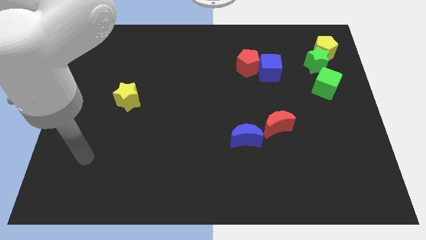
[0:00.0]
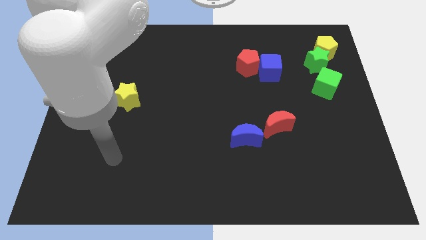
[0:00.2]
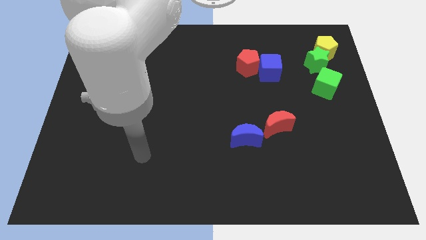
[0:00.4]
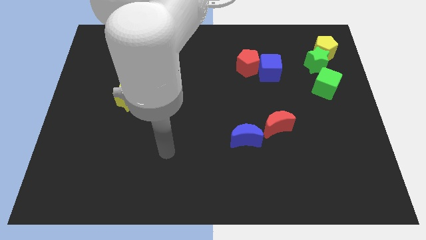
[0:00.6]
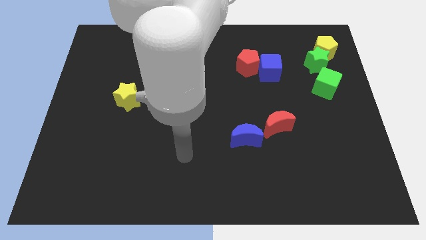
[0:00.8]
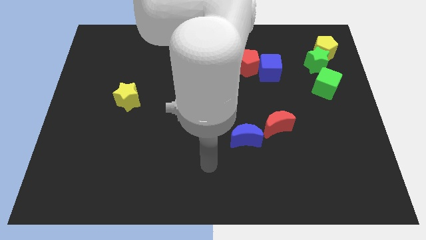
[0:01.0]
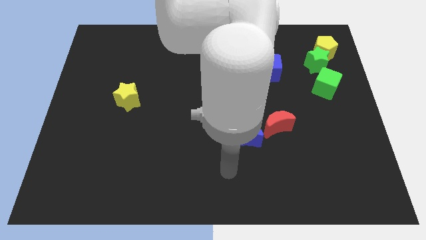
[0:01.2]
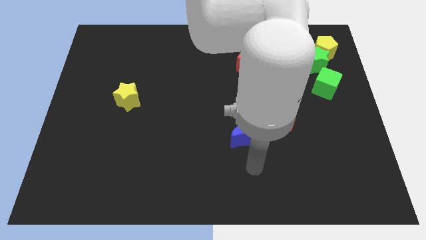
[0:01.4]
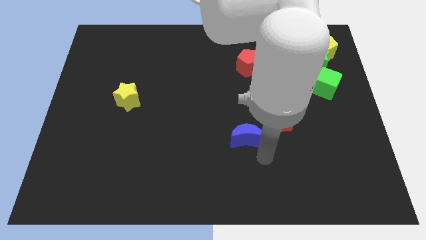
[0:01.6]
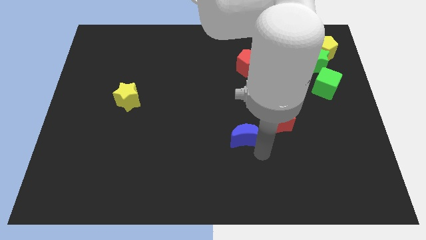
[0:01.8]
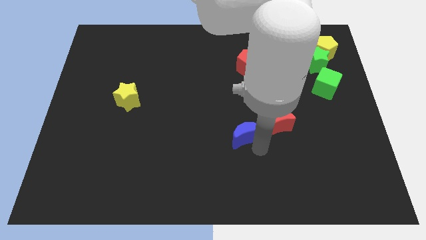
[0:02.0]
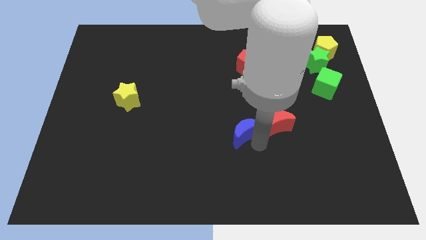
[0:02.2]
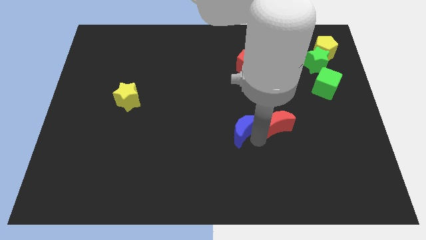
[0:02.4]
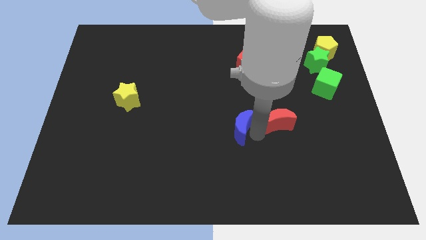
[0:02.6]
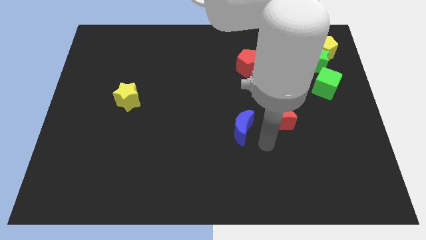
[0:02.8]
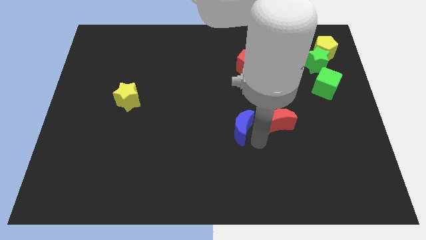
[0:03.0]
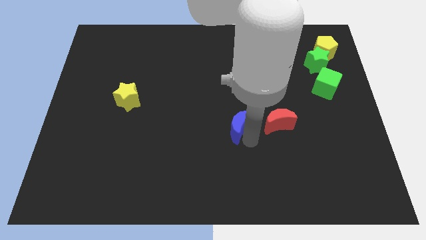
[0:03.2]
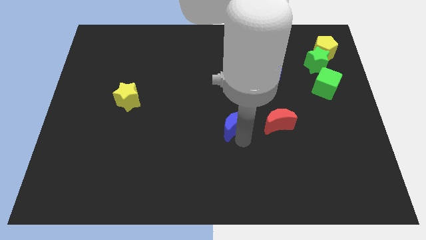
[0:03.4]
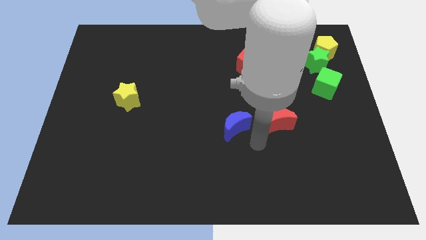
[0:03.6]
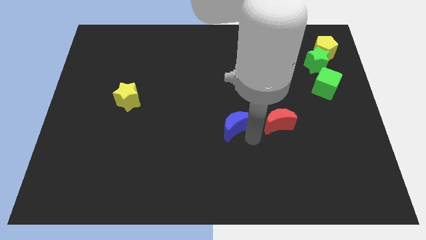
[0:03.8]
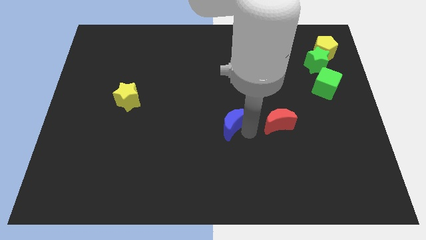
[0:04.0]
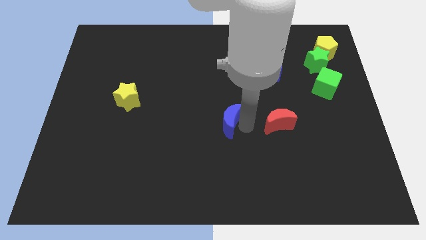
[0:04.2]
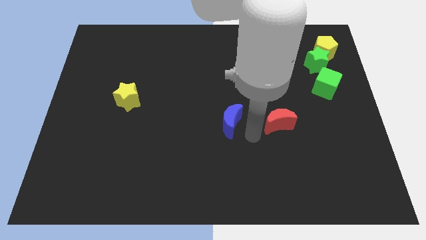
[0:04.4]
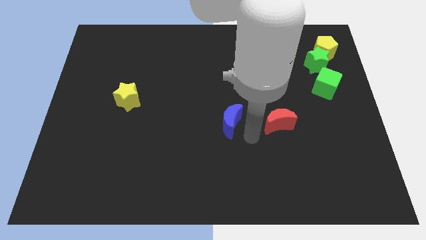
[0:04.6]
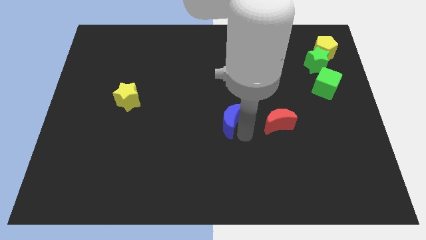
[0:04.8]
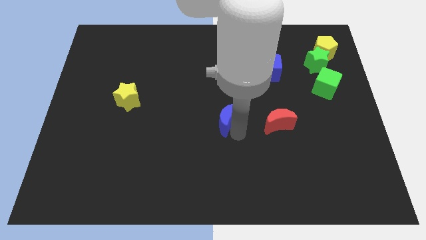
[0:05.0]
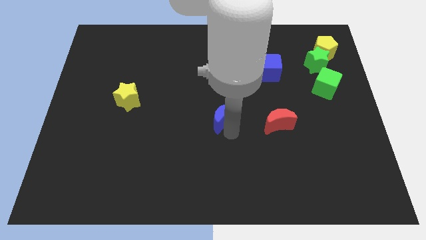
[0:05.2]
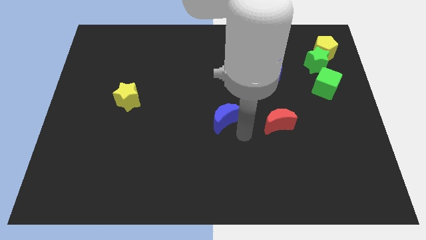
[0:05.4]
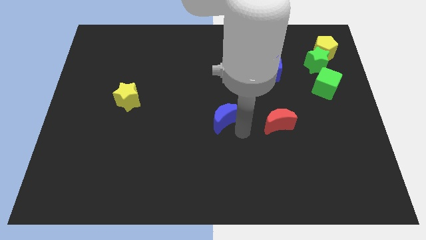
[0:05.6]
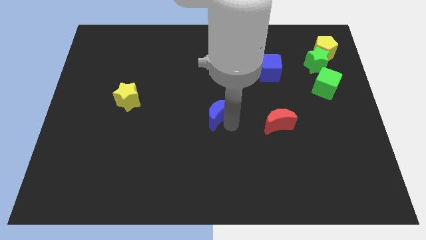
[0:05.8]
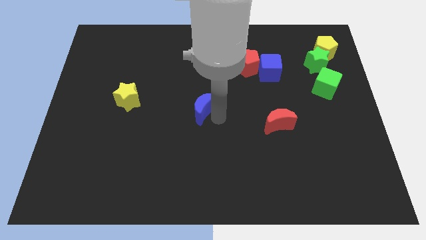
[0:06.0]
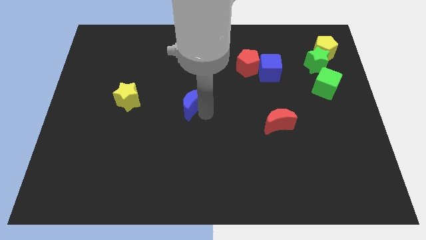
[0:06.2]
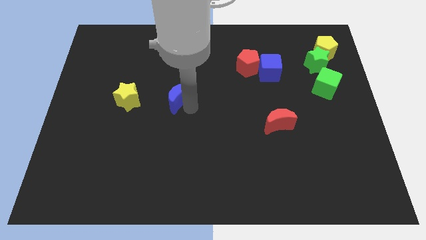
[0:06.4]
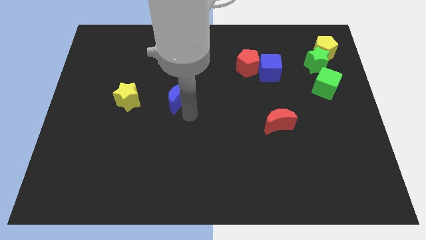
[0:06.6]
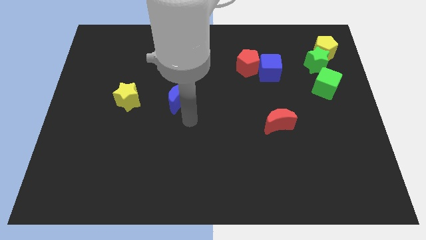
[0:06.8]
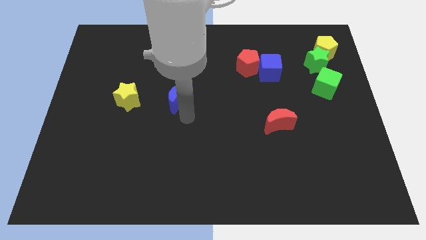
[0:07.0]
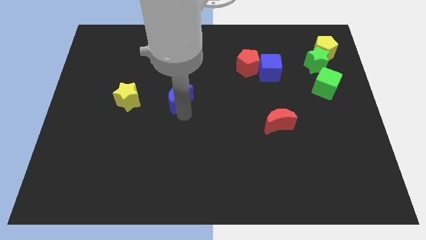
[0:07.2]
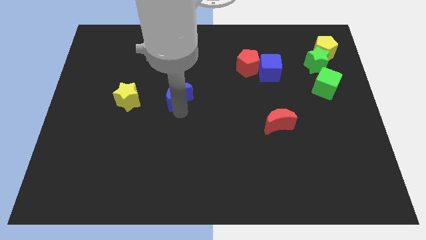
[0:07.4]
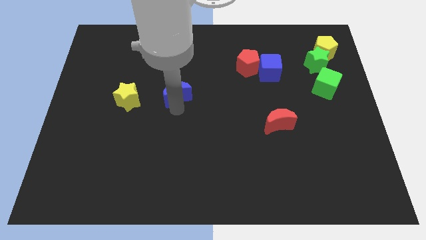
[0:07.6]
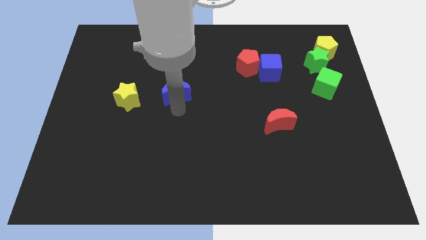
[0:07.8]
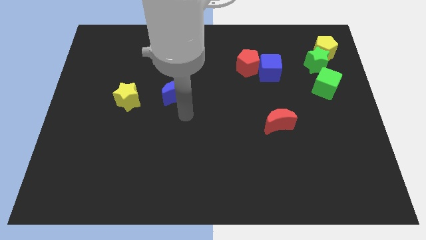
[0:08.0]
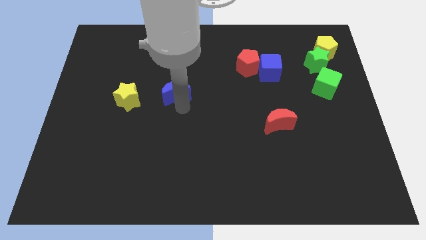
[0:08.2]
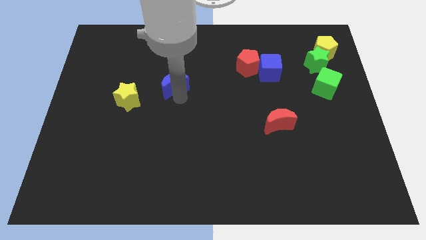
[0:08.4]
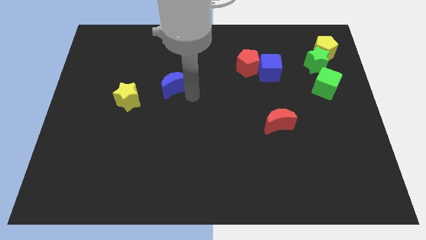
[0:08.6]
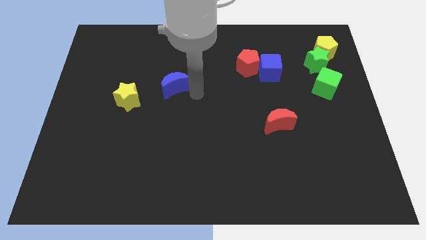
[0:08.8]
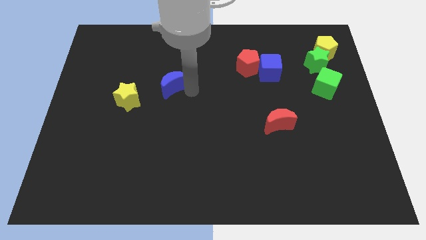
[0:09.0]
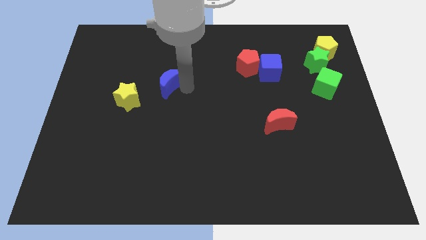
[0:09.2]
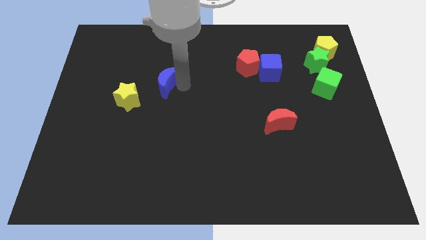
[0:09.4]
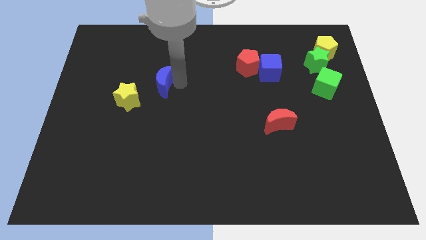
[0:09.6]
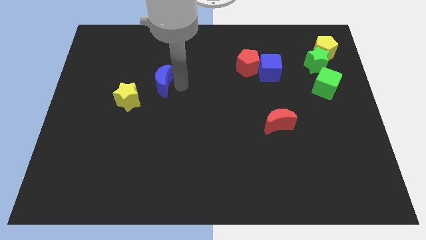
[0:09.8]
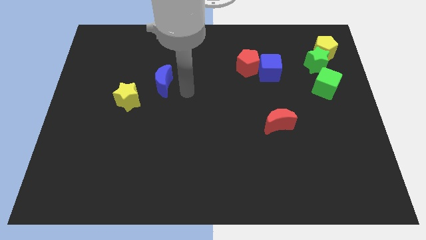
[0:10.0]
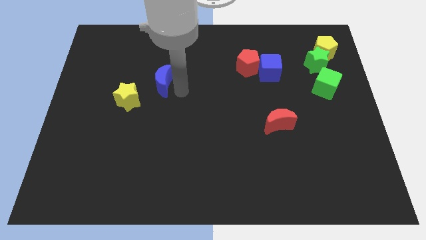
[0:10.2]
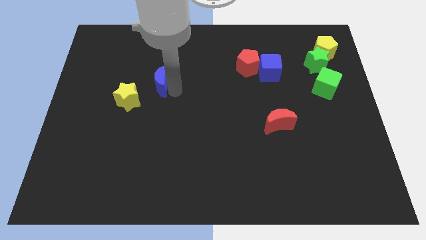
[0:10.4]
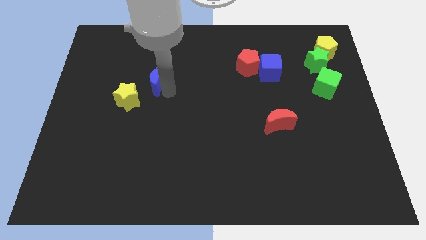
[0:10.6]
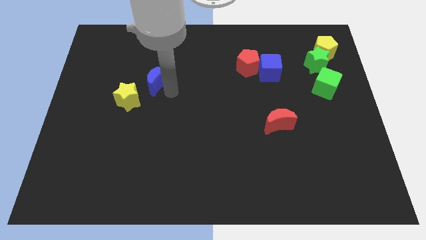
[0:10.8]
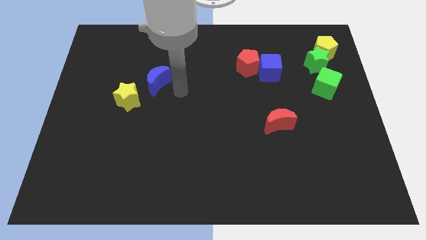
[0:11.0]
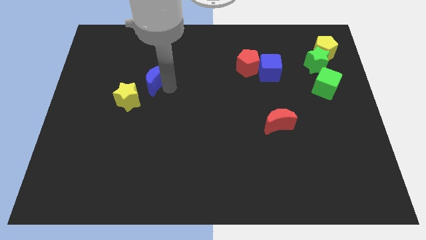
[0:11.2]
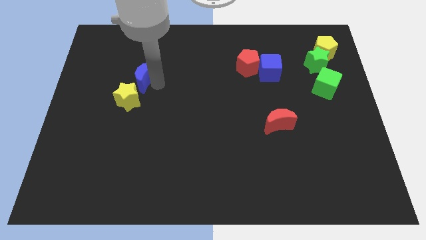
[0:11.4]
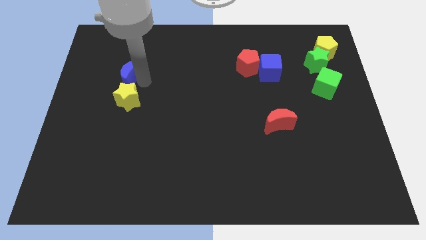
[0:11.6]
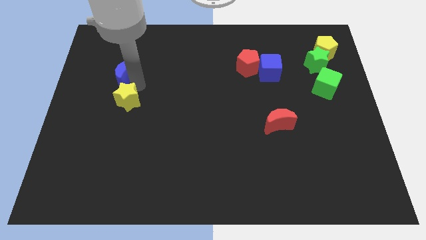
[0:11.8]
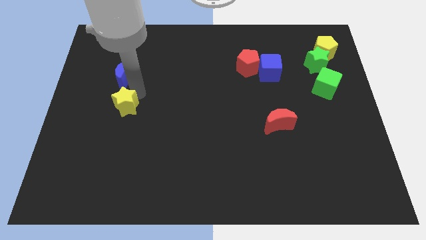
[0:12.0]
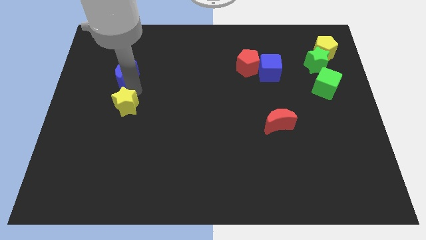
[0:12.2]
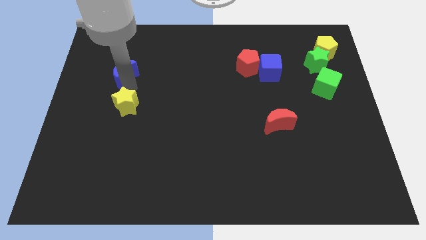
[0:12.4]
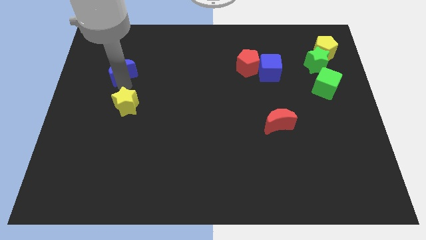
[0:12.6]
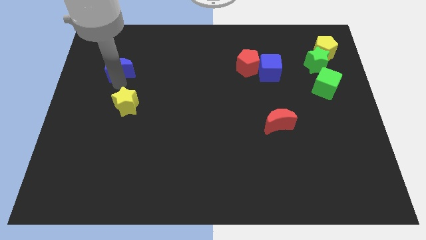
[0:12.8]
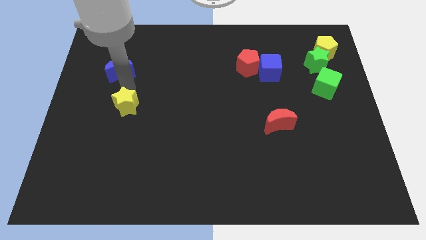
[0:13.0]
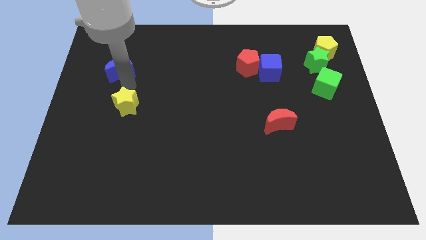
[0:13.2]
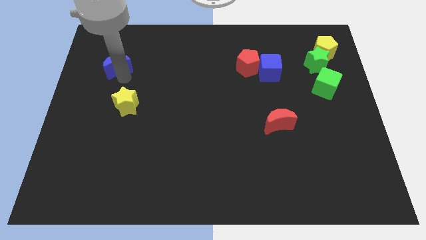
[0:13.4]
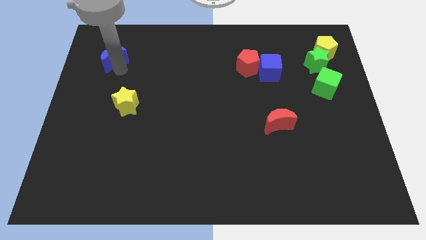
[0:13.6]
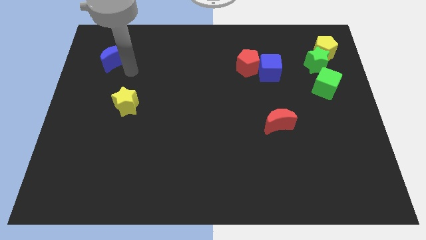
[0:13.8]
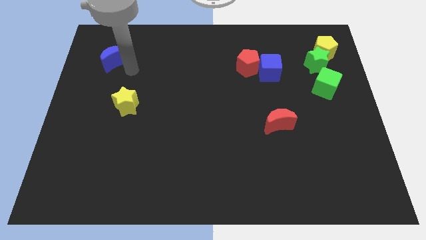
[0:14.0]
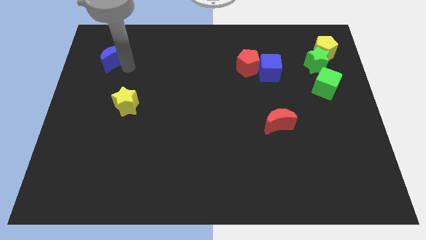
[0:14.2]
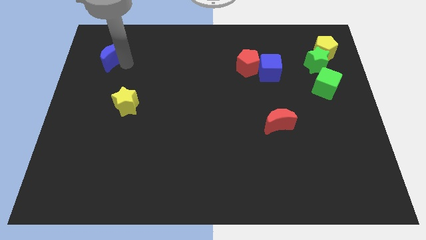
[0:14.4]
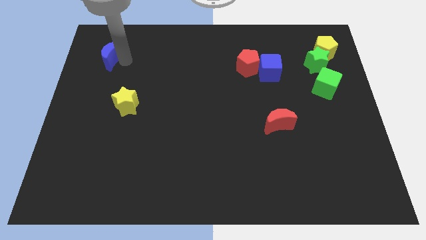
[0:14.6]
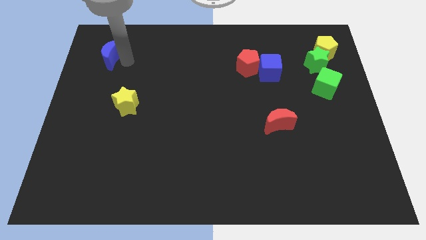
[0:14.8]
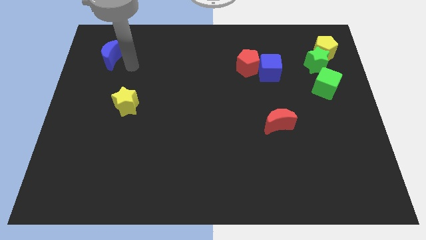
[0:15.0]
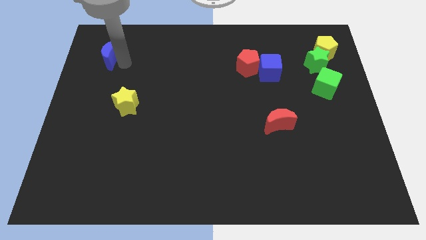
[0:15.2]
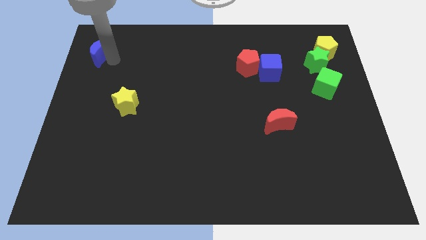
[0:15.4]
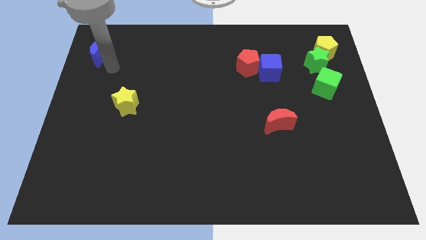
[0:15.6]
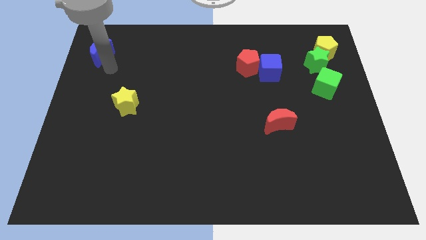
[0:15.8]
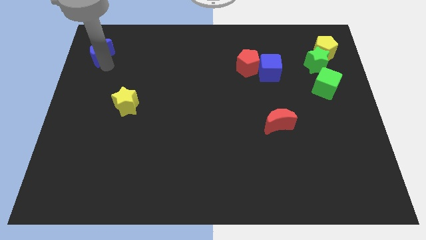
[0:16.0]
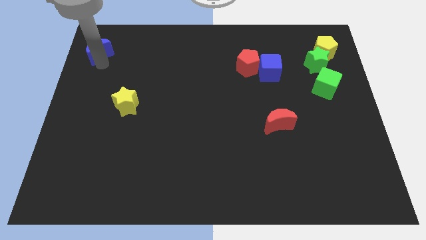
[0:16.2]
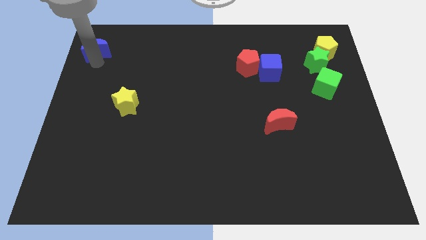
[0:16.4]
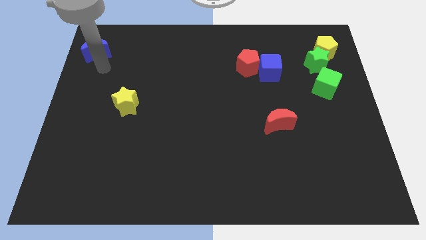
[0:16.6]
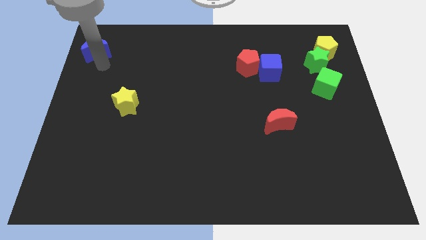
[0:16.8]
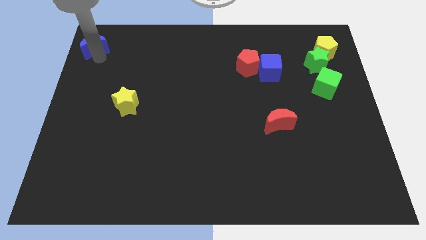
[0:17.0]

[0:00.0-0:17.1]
slide the blue moon to the top left
